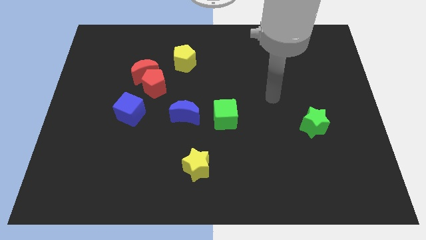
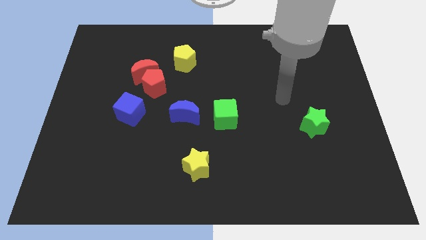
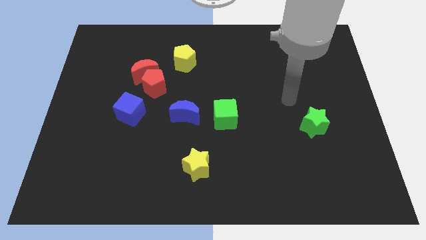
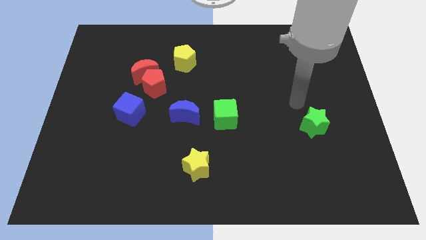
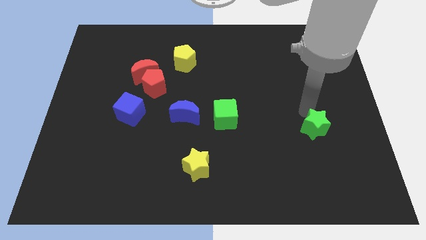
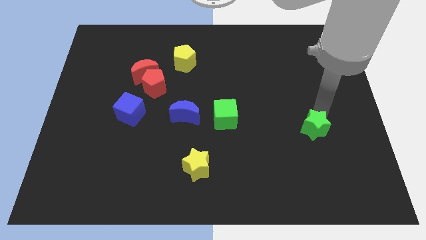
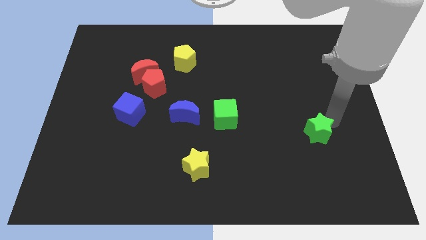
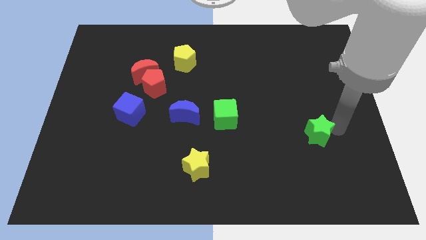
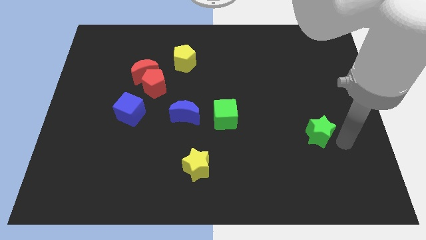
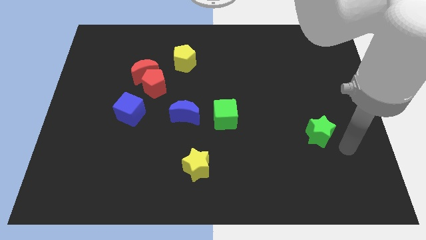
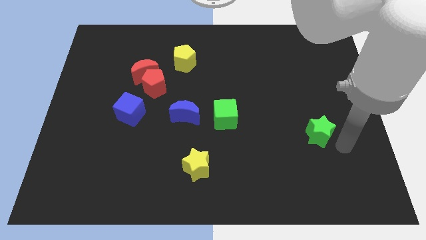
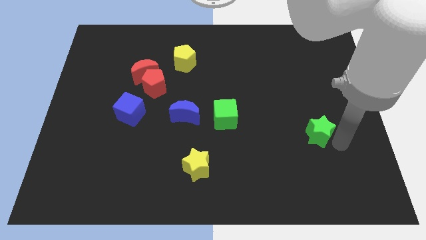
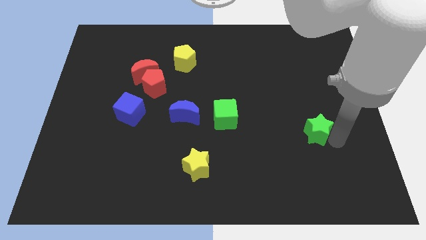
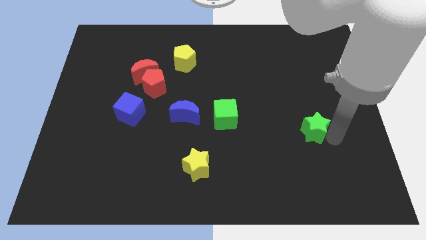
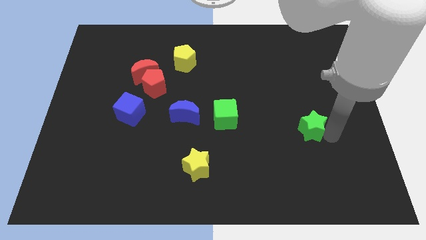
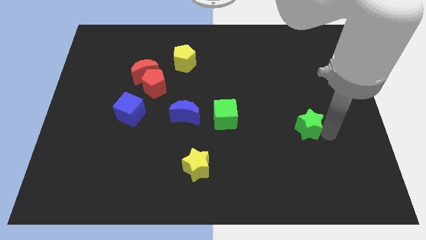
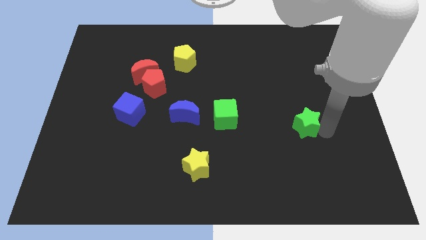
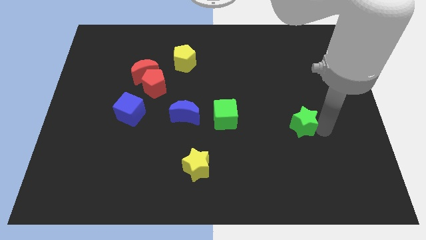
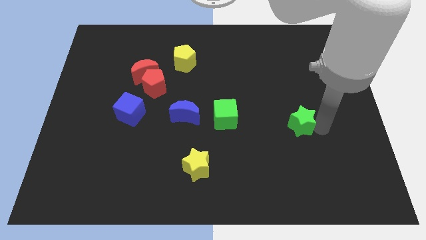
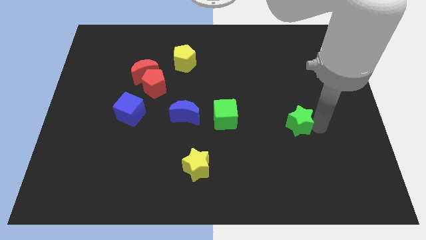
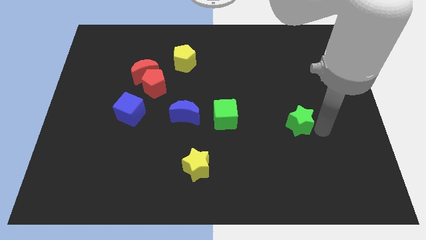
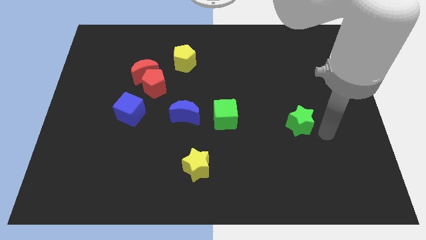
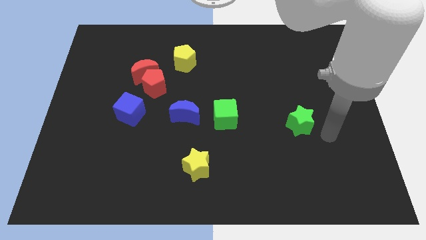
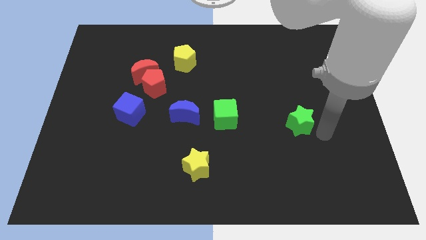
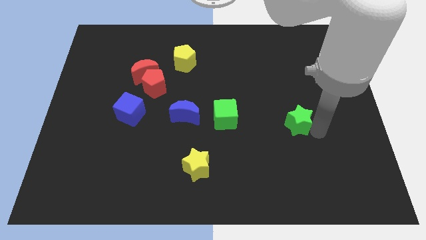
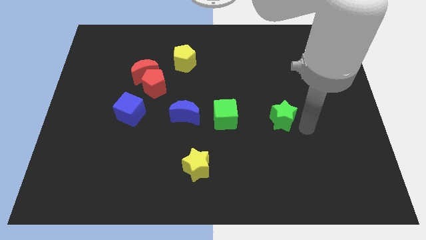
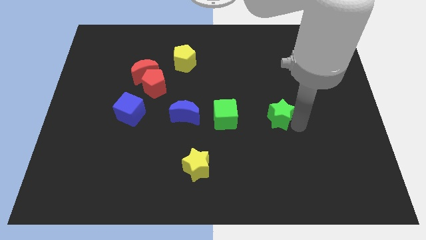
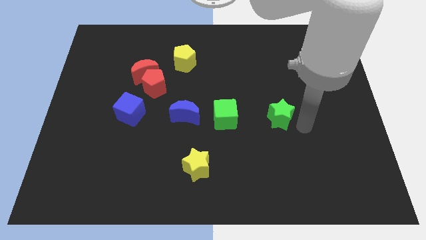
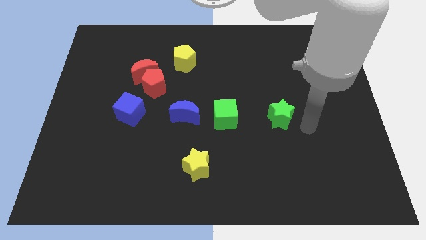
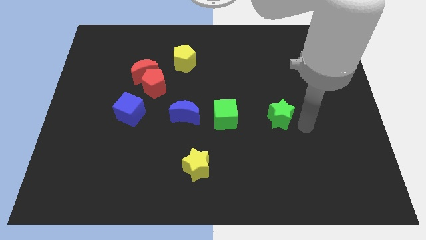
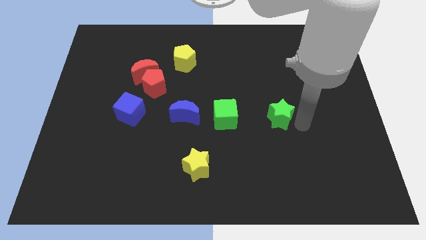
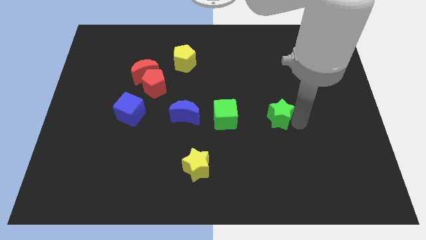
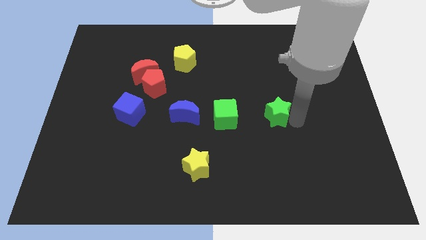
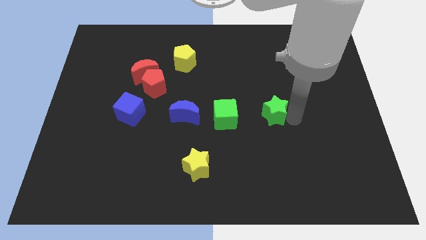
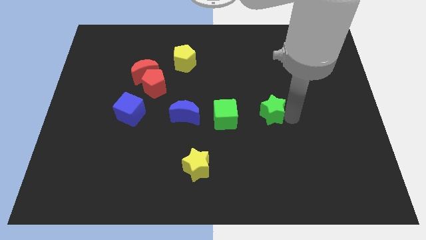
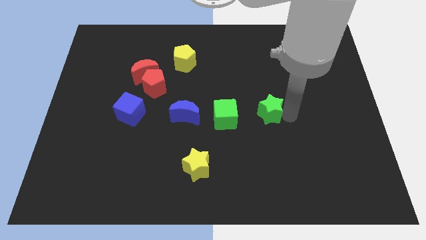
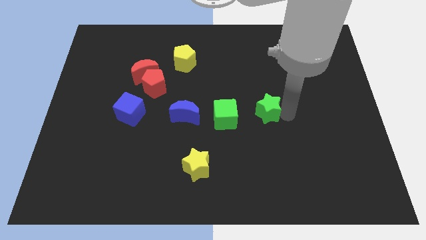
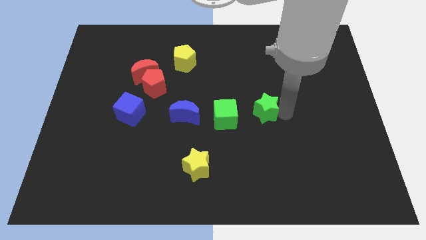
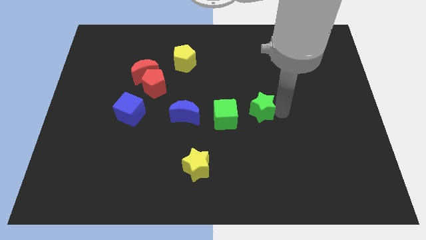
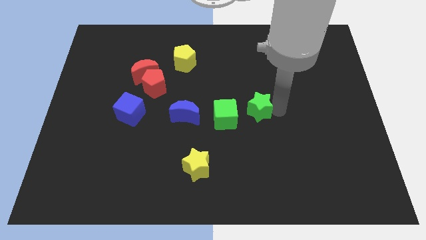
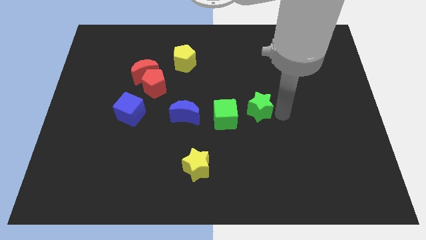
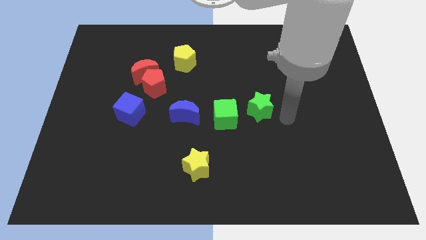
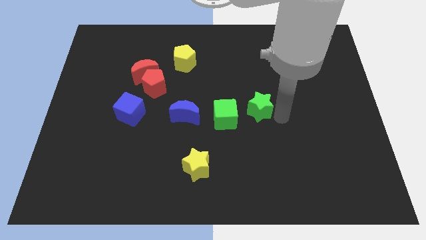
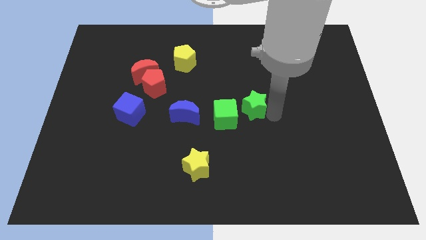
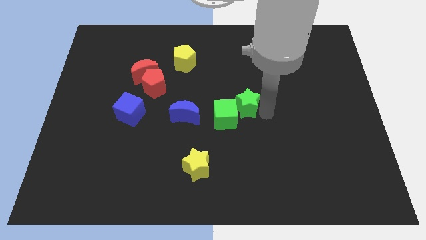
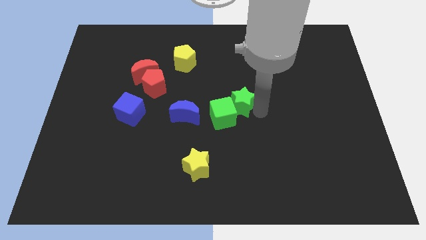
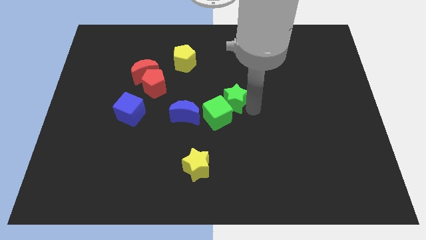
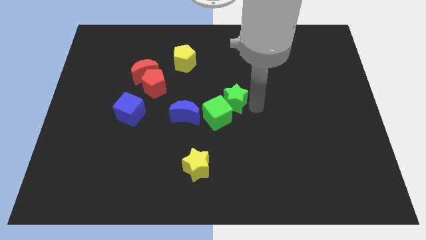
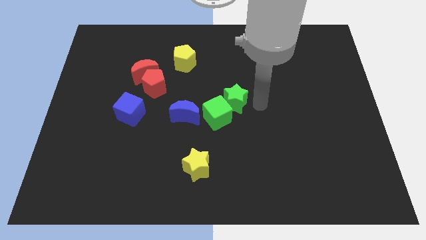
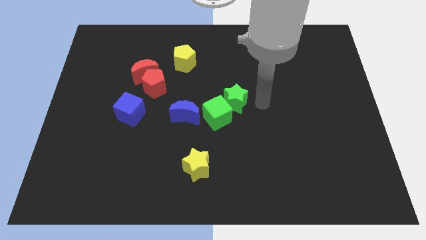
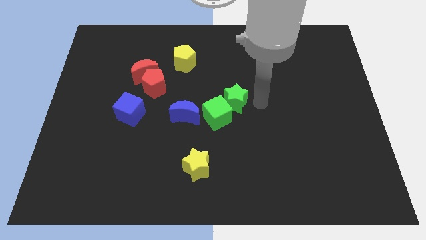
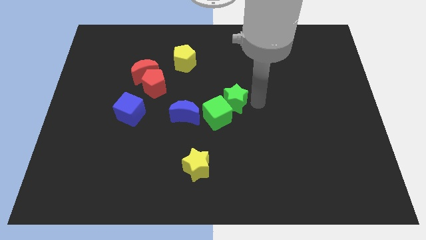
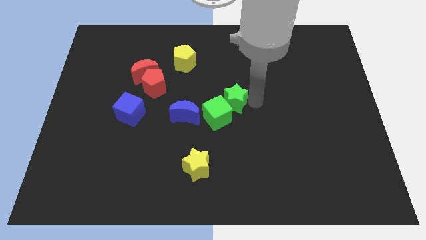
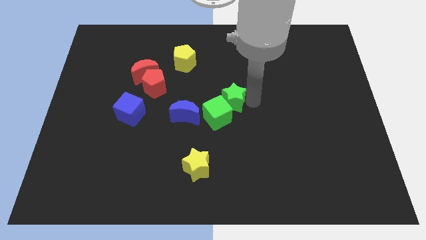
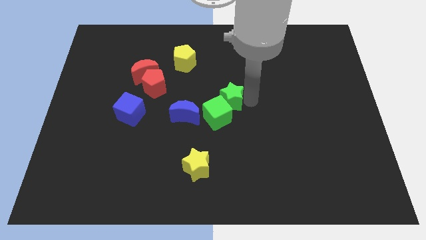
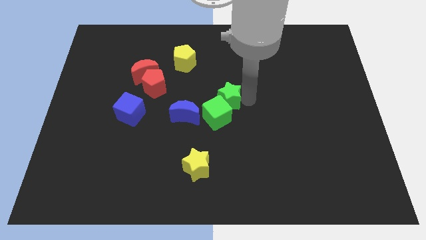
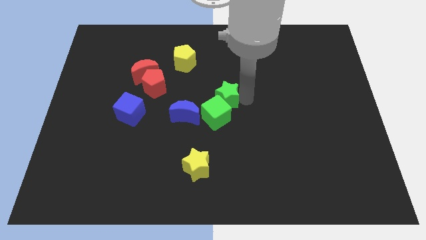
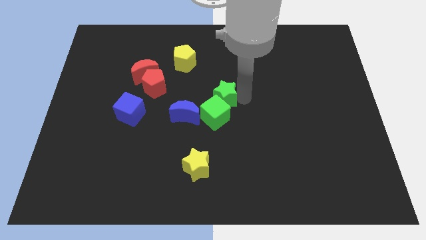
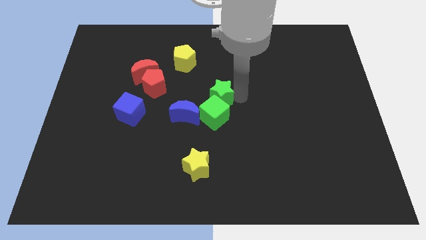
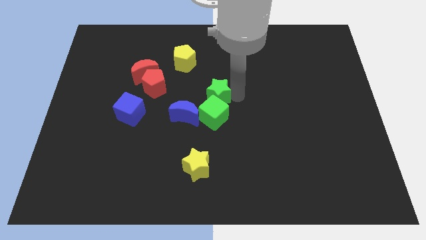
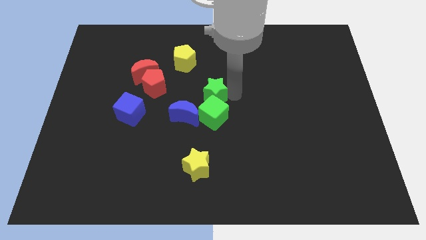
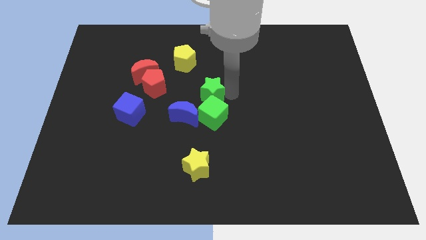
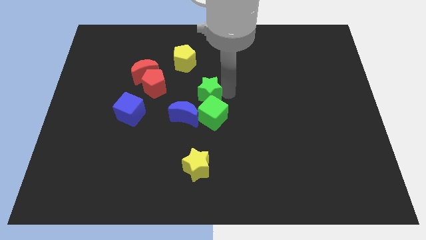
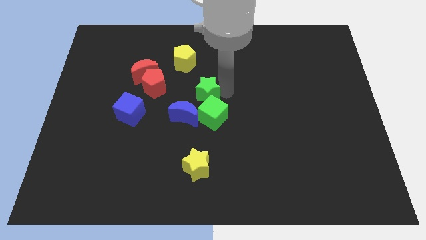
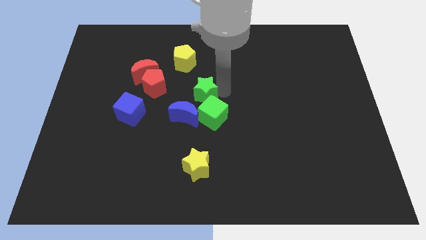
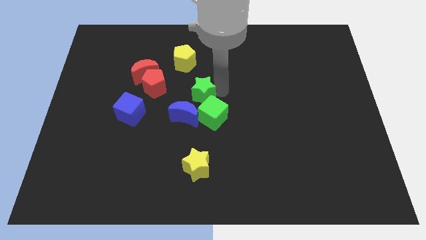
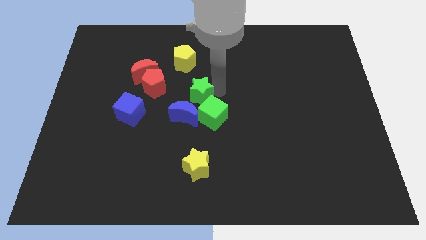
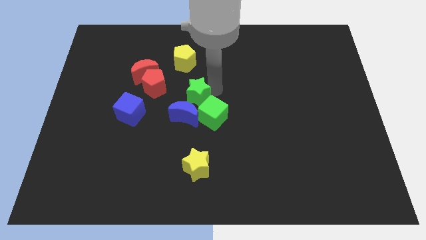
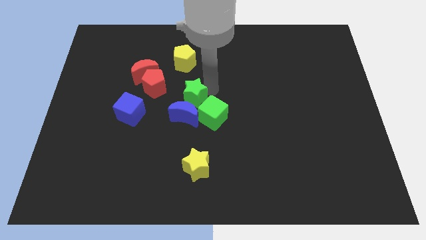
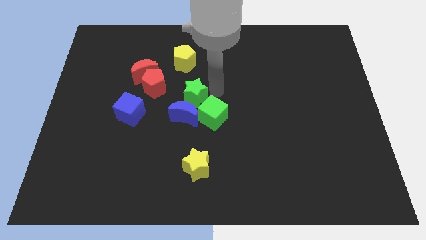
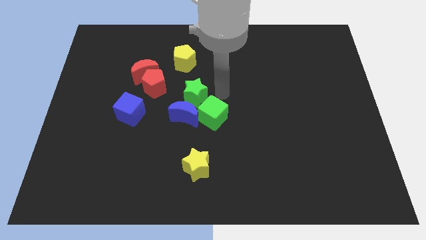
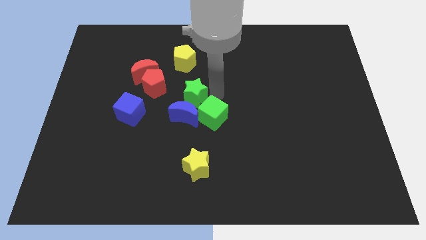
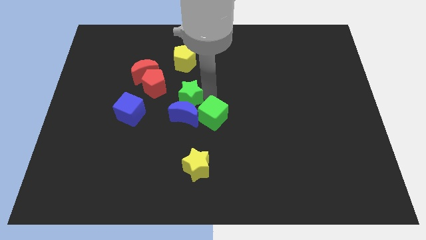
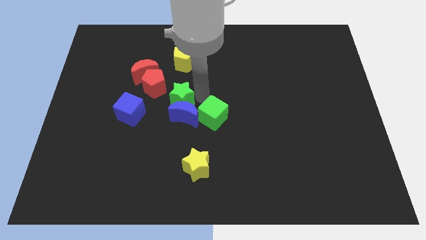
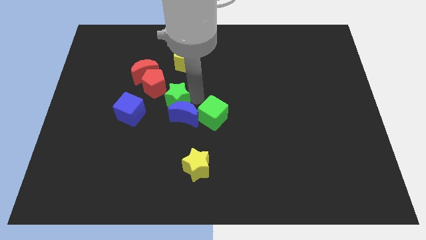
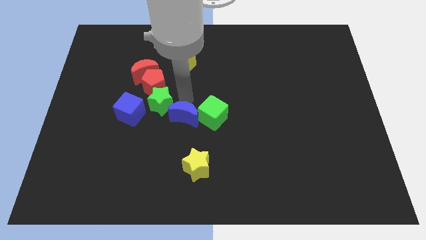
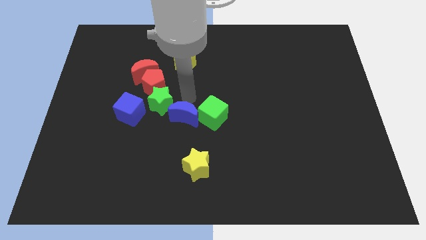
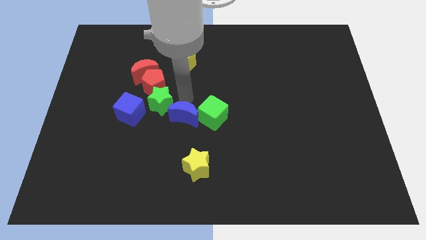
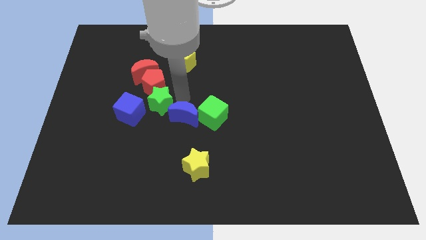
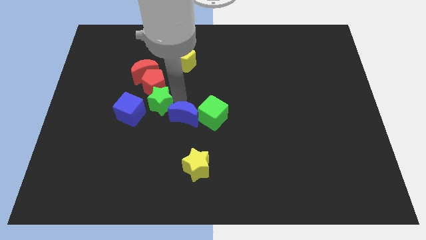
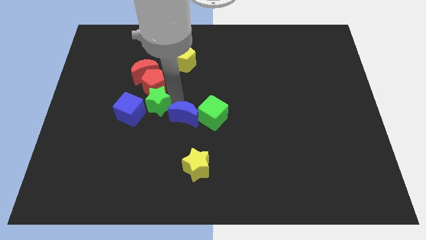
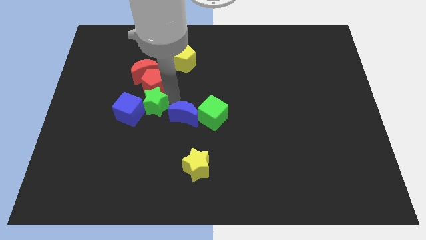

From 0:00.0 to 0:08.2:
push the green star towards the blue cube
